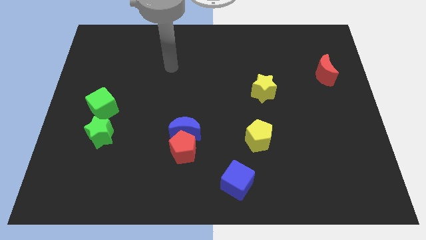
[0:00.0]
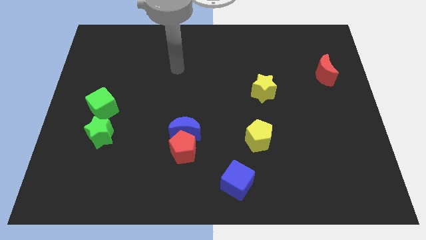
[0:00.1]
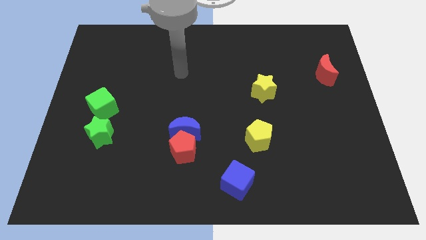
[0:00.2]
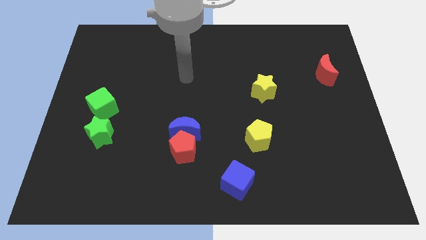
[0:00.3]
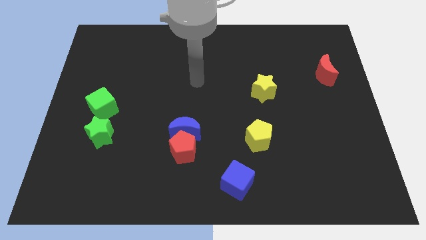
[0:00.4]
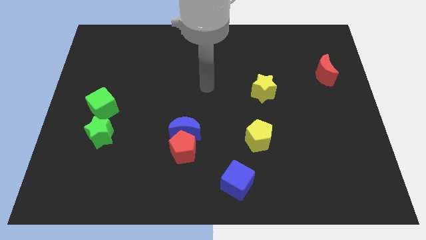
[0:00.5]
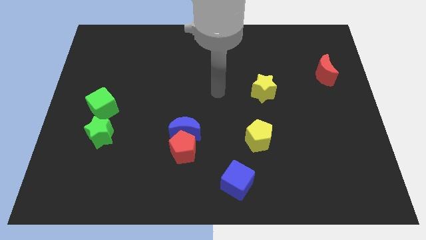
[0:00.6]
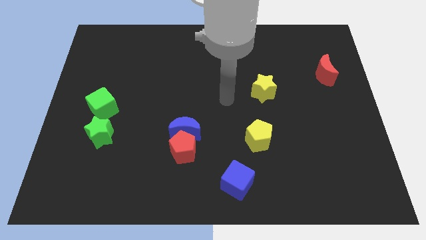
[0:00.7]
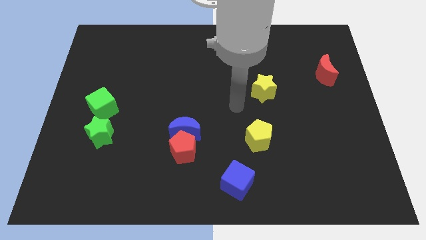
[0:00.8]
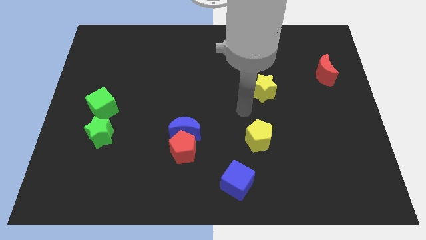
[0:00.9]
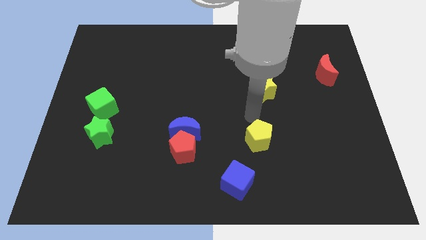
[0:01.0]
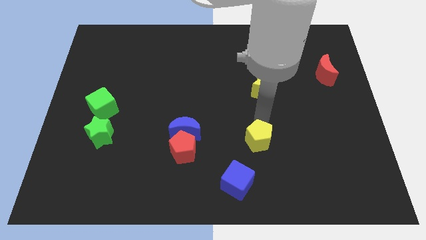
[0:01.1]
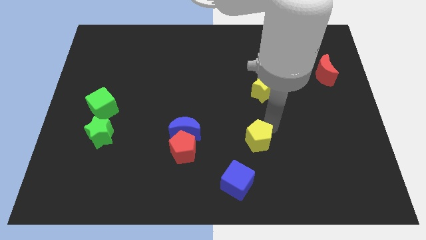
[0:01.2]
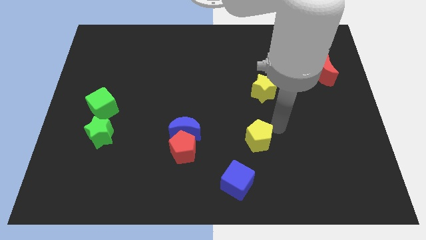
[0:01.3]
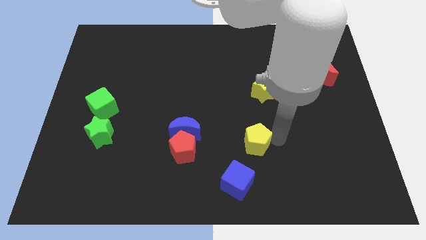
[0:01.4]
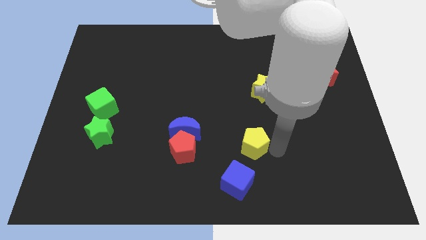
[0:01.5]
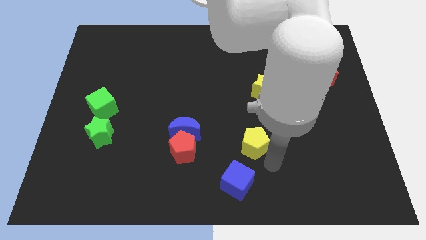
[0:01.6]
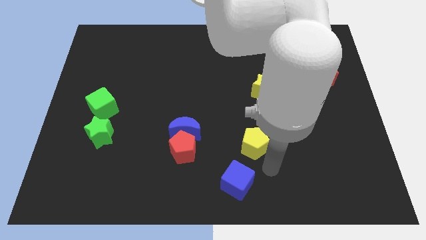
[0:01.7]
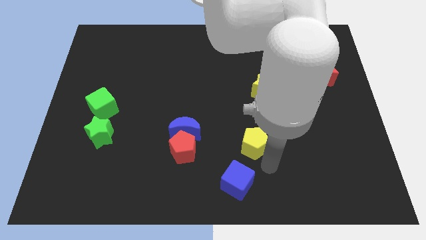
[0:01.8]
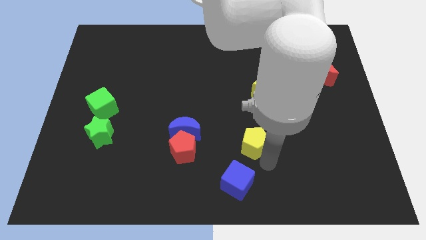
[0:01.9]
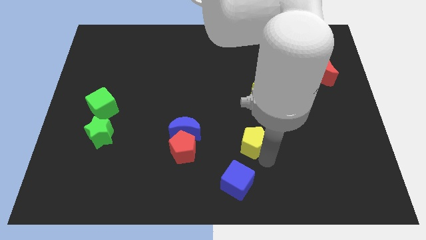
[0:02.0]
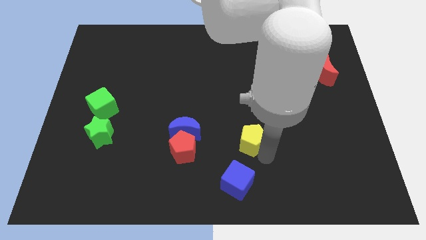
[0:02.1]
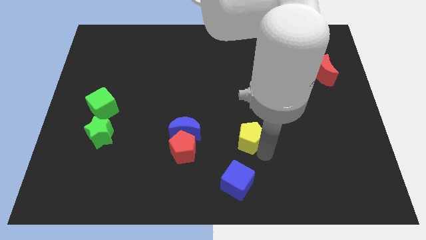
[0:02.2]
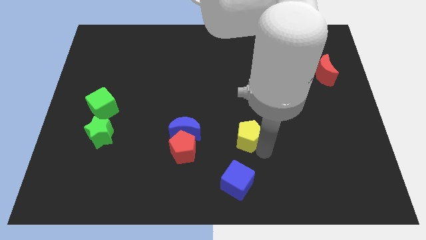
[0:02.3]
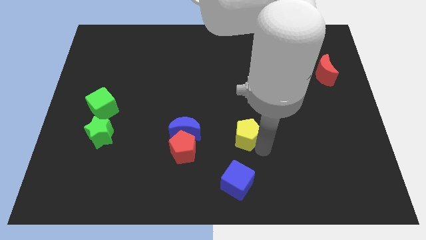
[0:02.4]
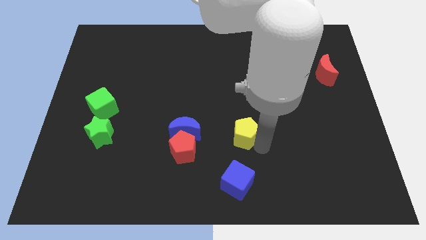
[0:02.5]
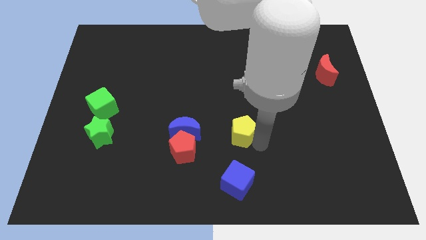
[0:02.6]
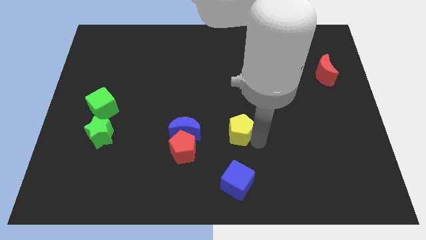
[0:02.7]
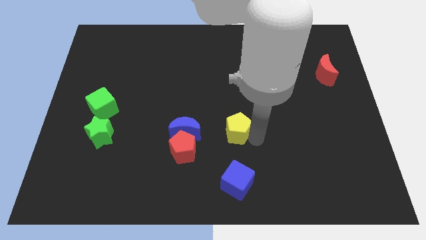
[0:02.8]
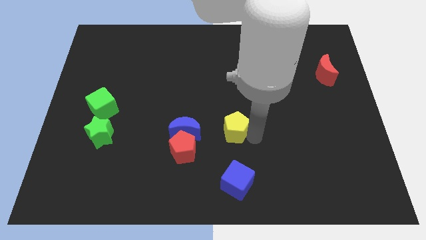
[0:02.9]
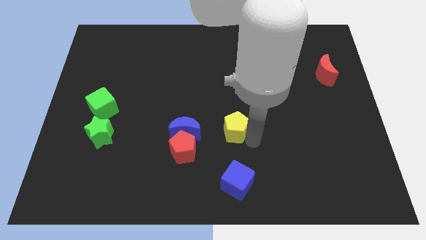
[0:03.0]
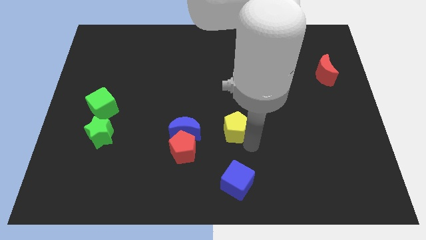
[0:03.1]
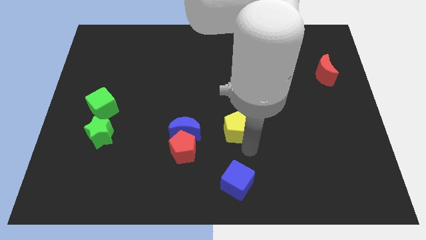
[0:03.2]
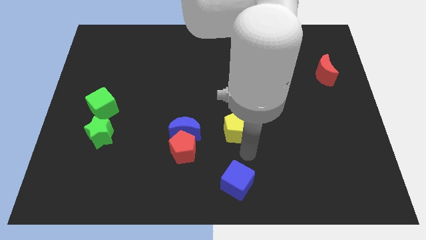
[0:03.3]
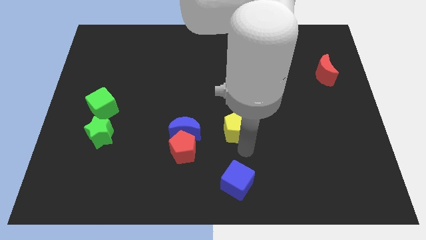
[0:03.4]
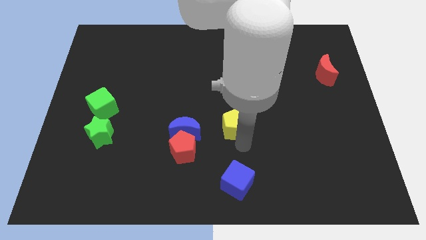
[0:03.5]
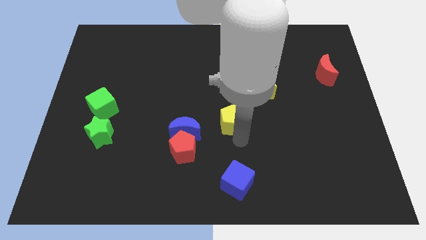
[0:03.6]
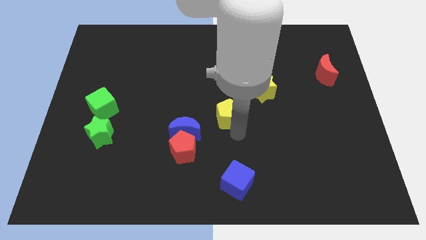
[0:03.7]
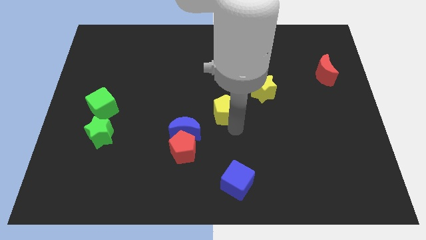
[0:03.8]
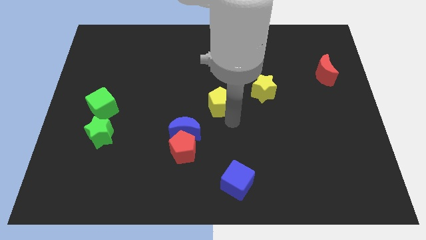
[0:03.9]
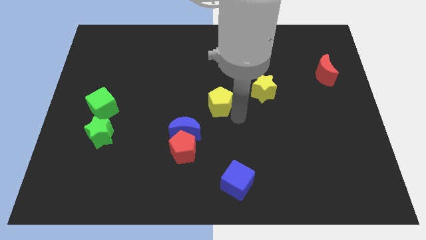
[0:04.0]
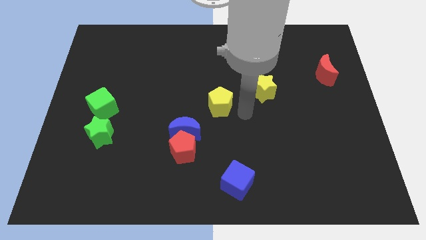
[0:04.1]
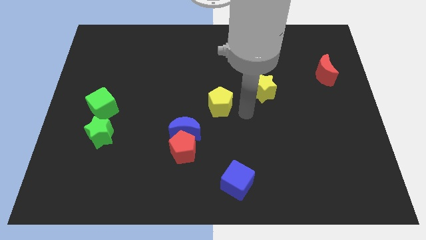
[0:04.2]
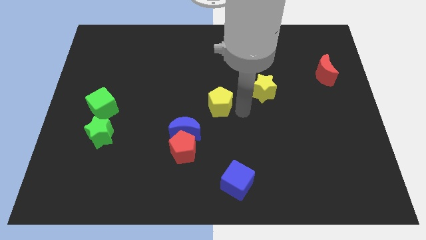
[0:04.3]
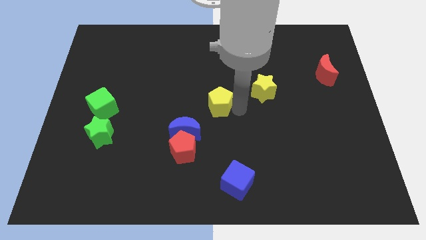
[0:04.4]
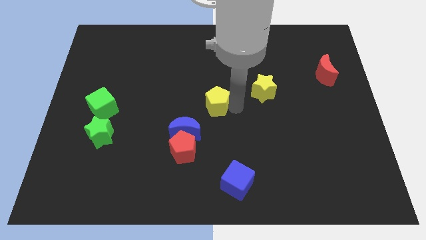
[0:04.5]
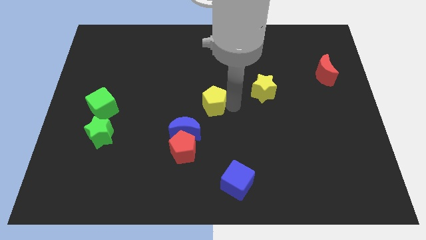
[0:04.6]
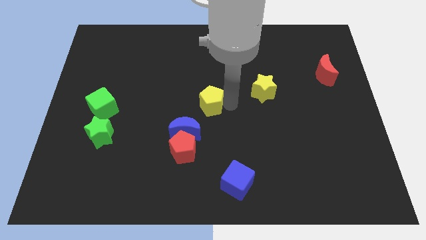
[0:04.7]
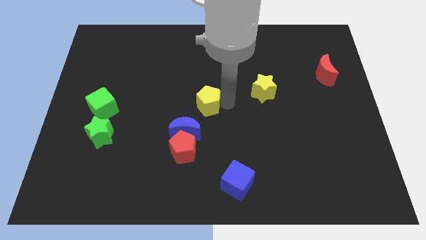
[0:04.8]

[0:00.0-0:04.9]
push the yellow pentagon above the blue moon

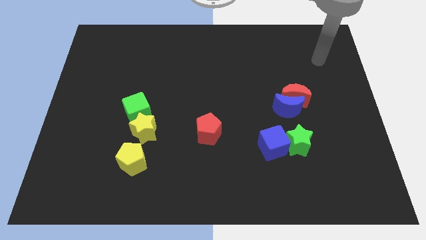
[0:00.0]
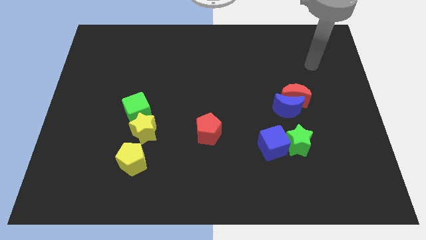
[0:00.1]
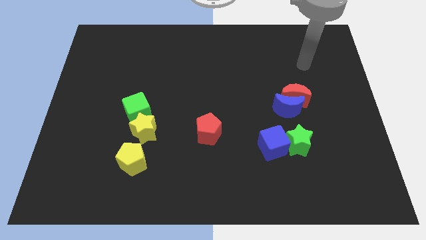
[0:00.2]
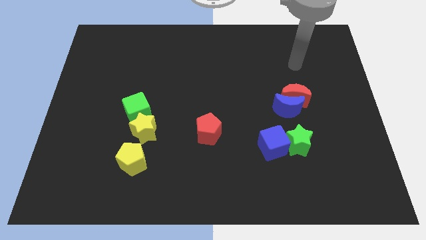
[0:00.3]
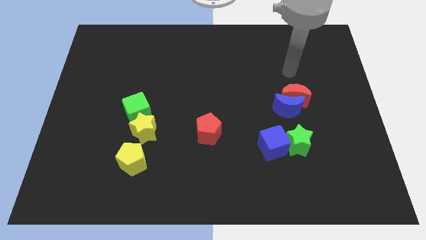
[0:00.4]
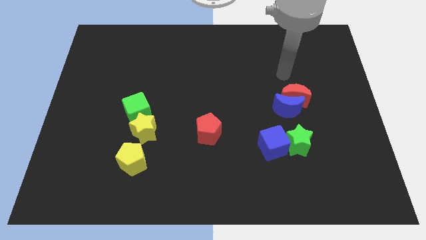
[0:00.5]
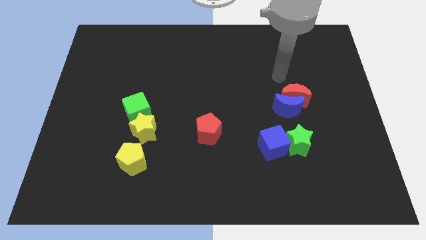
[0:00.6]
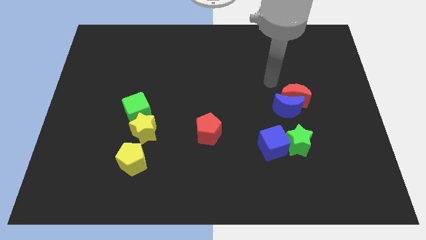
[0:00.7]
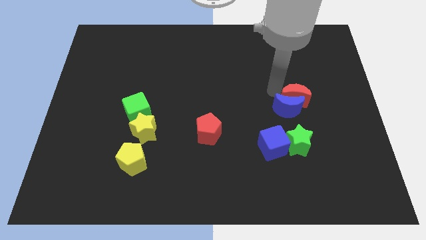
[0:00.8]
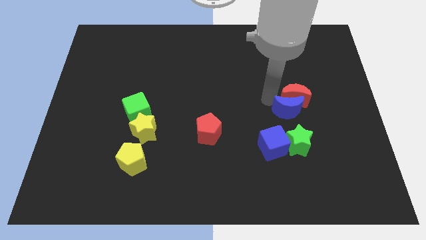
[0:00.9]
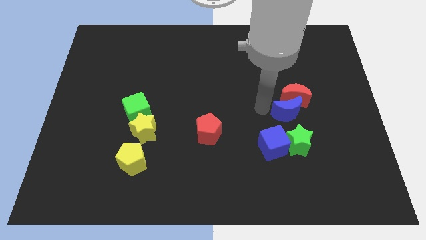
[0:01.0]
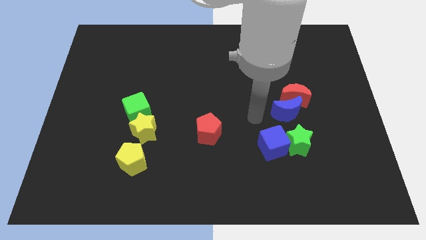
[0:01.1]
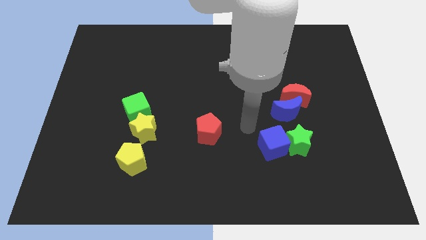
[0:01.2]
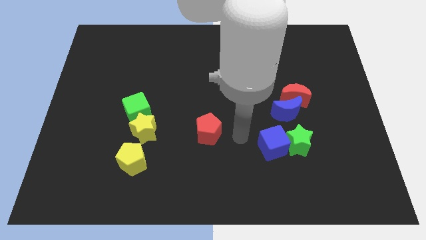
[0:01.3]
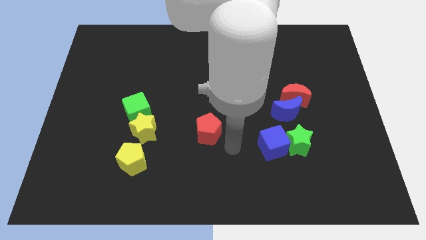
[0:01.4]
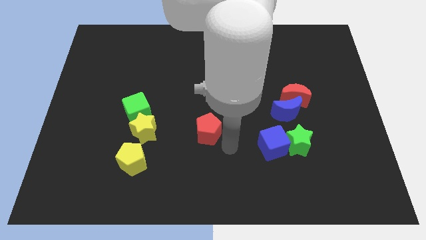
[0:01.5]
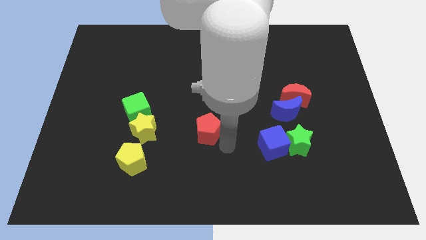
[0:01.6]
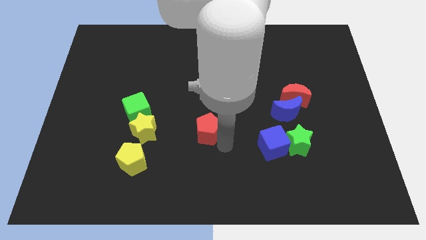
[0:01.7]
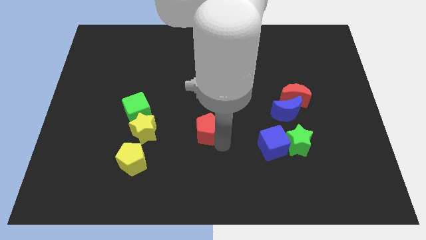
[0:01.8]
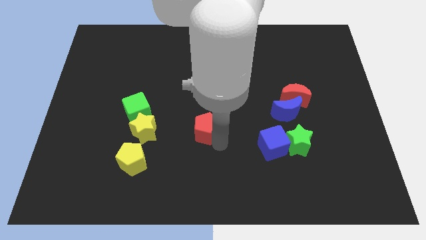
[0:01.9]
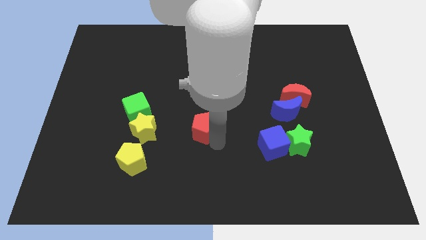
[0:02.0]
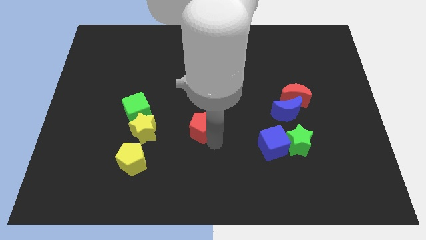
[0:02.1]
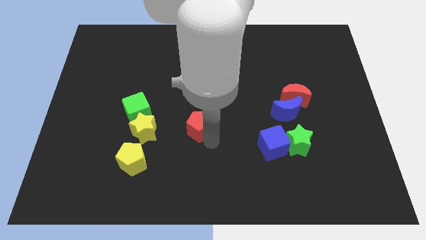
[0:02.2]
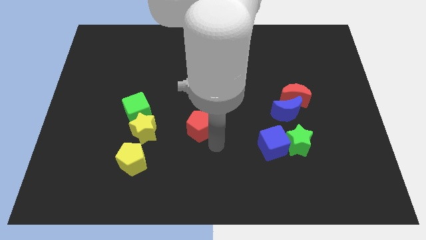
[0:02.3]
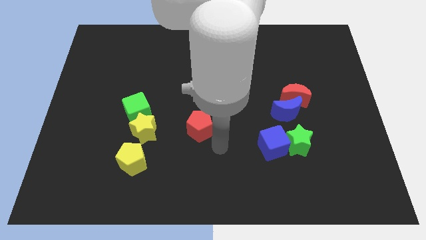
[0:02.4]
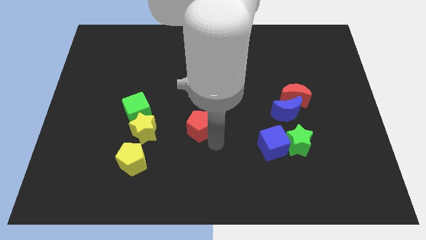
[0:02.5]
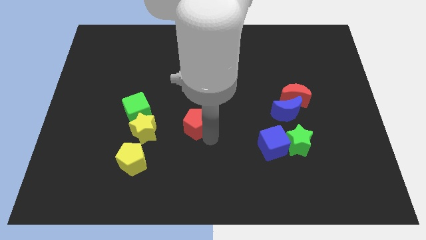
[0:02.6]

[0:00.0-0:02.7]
move the red pentagon to the right of the green cube
